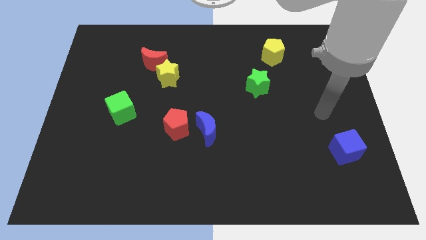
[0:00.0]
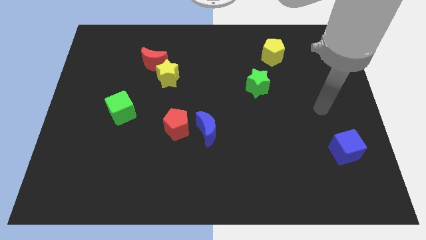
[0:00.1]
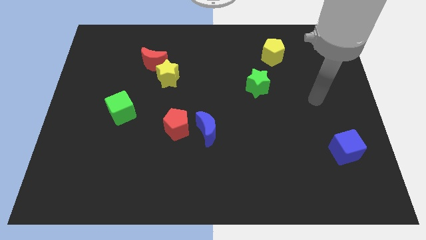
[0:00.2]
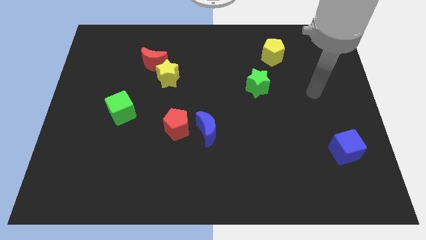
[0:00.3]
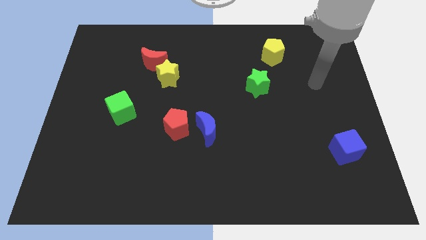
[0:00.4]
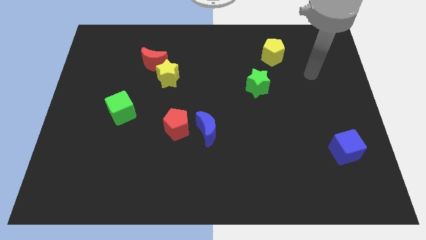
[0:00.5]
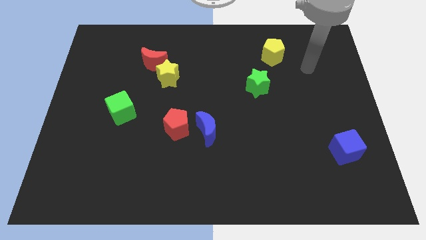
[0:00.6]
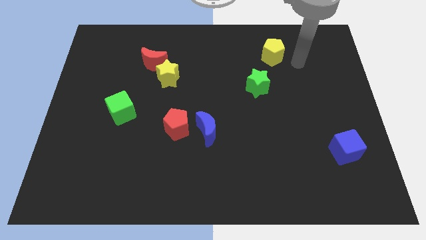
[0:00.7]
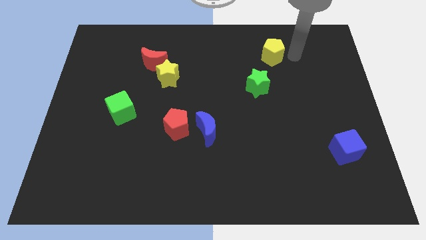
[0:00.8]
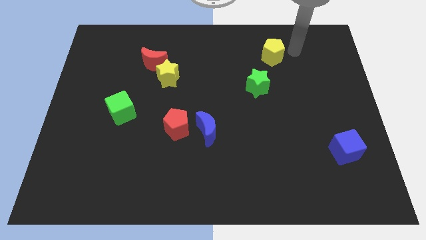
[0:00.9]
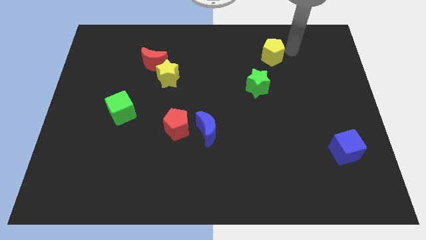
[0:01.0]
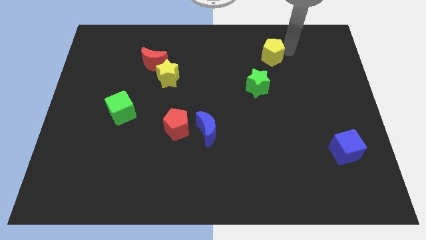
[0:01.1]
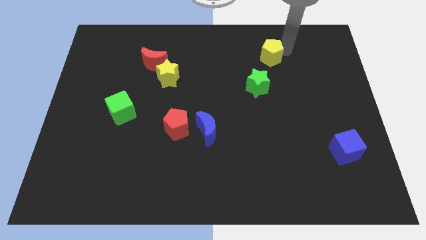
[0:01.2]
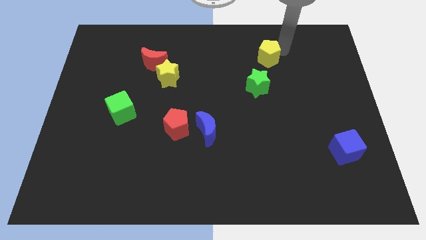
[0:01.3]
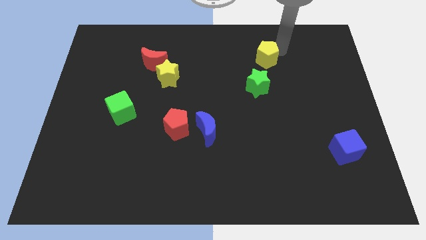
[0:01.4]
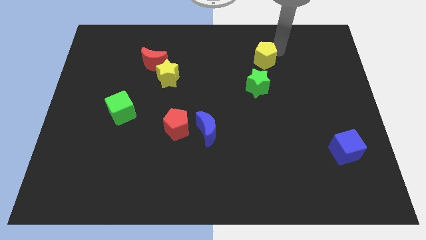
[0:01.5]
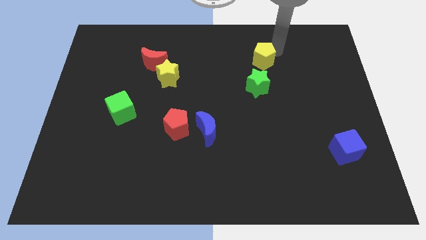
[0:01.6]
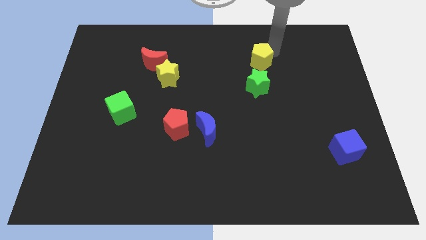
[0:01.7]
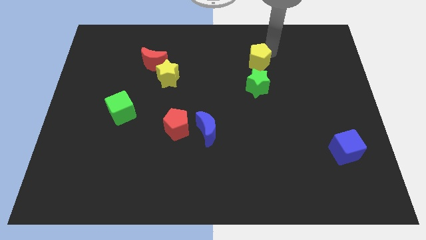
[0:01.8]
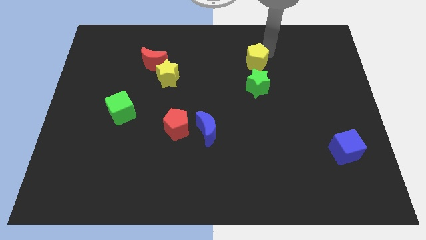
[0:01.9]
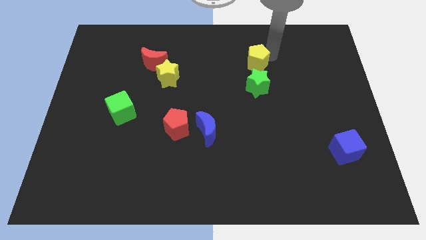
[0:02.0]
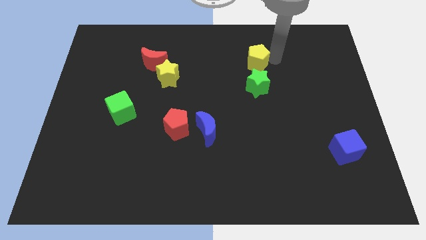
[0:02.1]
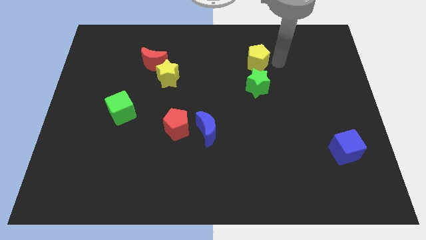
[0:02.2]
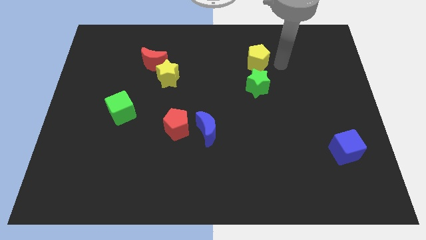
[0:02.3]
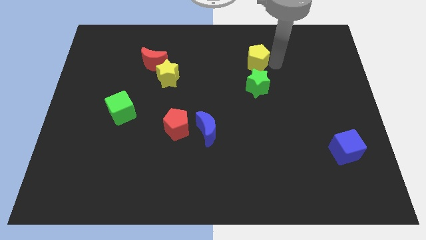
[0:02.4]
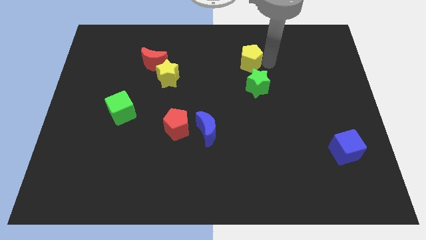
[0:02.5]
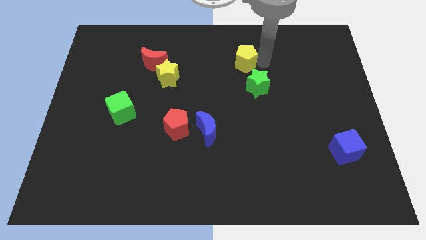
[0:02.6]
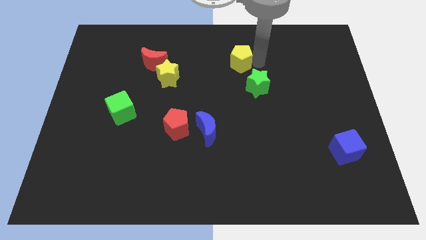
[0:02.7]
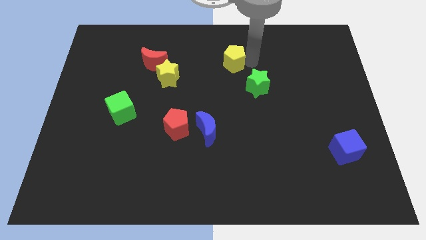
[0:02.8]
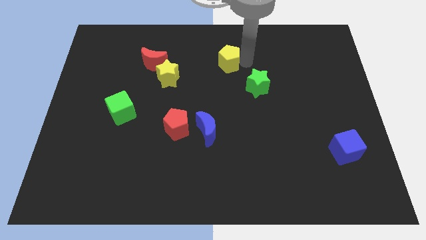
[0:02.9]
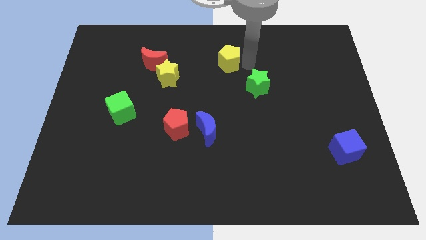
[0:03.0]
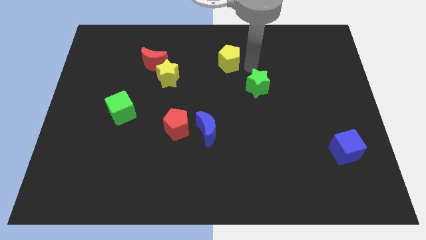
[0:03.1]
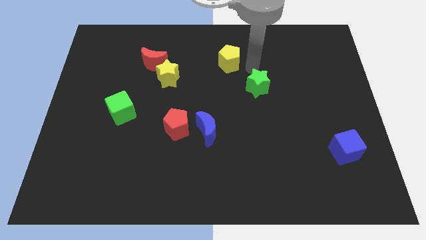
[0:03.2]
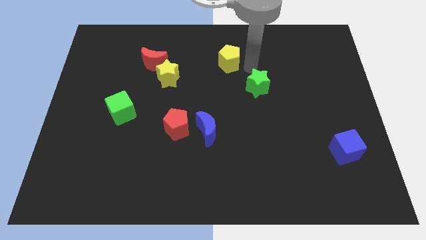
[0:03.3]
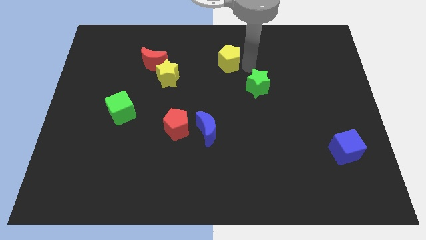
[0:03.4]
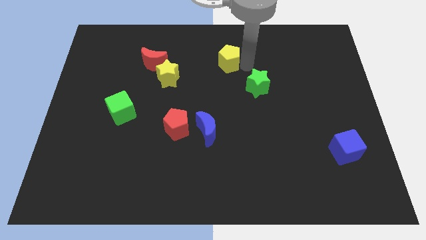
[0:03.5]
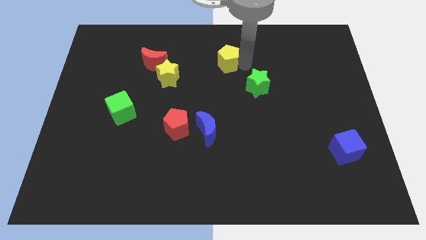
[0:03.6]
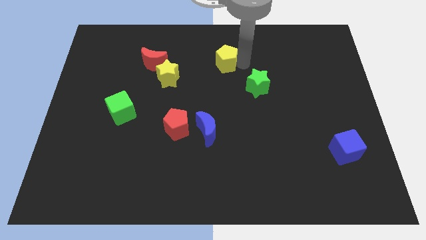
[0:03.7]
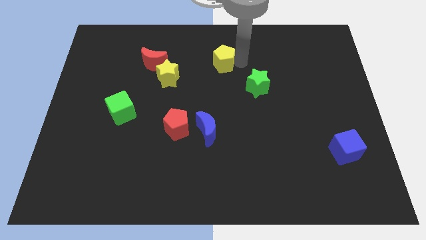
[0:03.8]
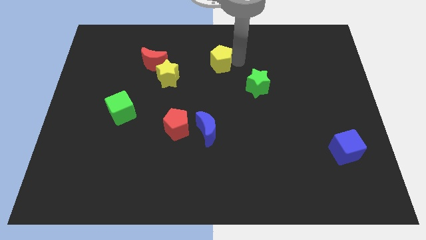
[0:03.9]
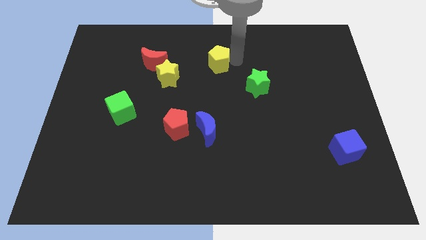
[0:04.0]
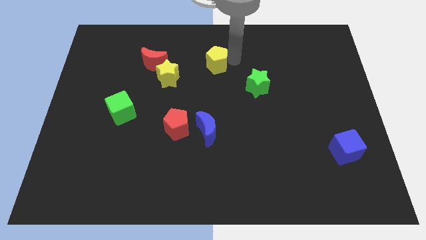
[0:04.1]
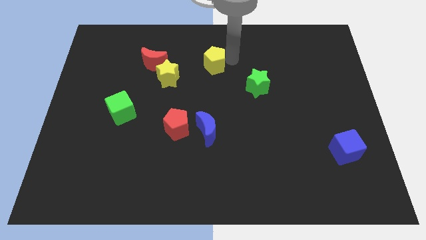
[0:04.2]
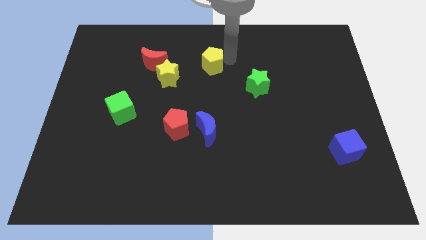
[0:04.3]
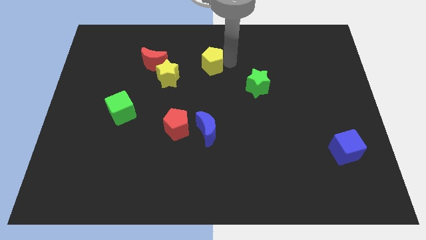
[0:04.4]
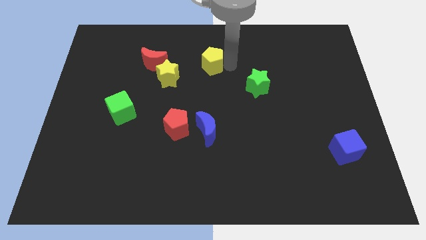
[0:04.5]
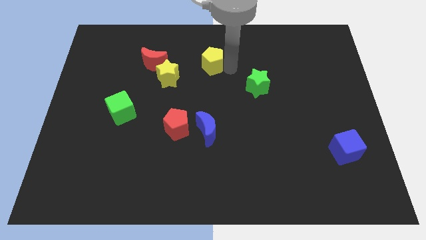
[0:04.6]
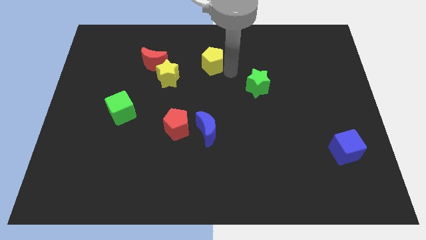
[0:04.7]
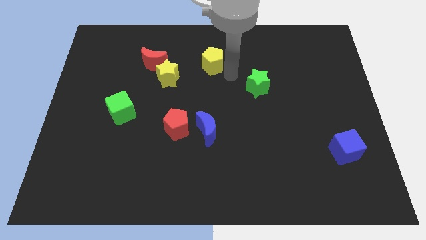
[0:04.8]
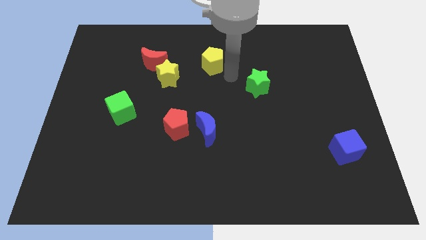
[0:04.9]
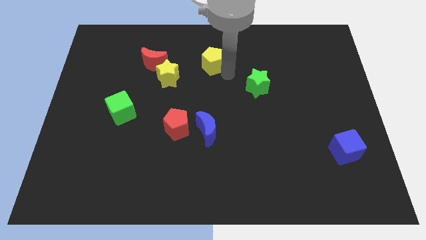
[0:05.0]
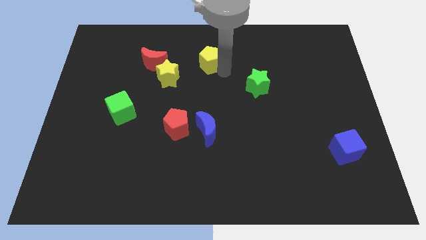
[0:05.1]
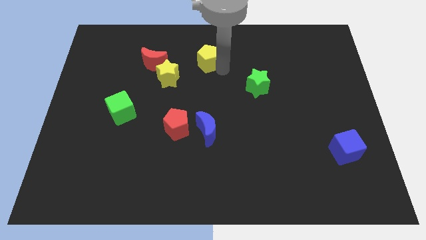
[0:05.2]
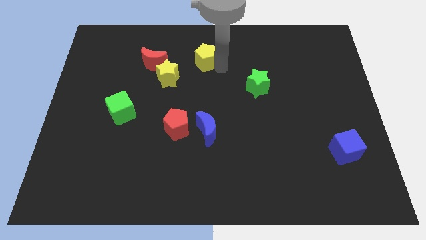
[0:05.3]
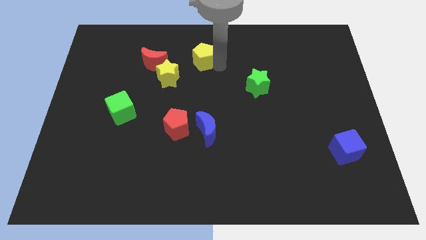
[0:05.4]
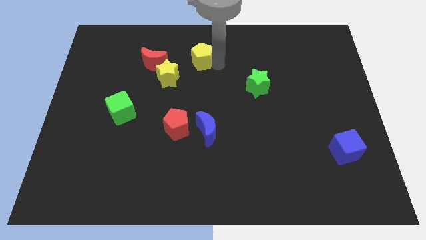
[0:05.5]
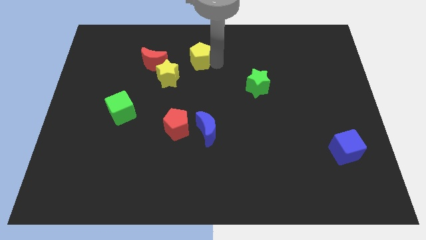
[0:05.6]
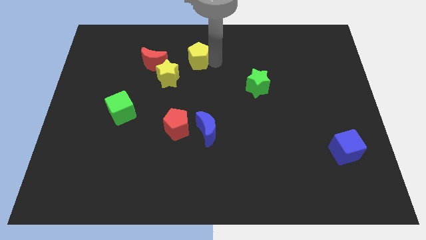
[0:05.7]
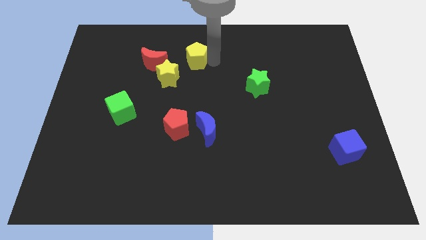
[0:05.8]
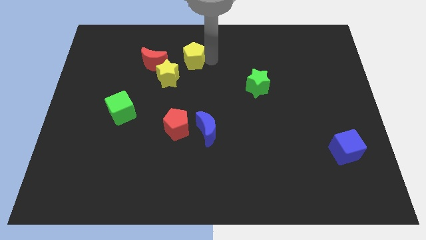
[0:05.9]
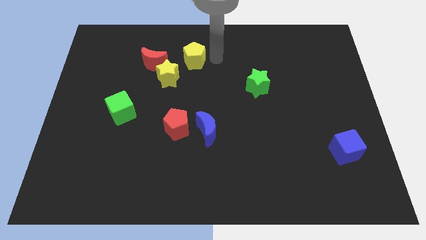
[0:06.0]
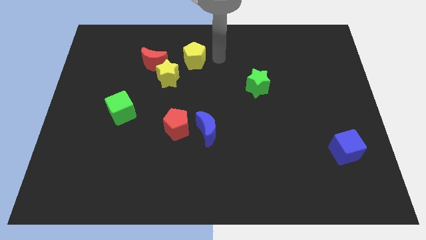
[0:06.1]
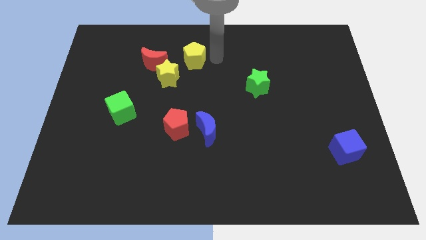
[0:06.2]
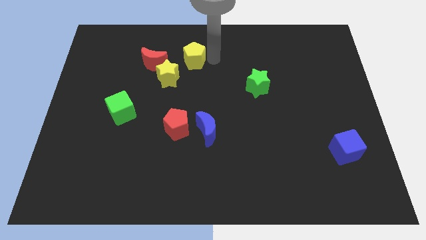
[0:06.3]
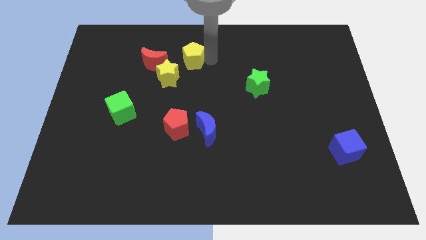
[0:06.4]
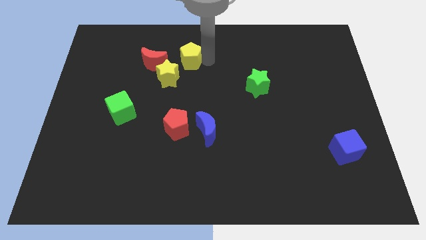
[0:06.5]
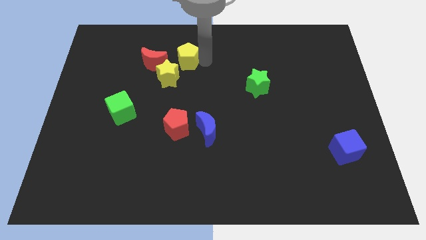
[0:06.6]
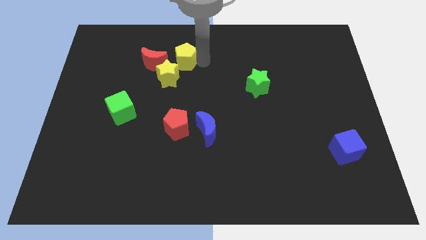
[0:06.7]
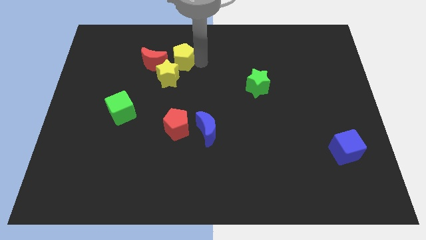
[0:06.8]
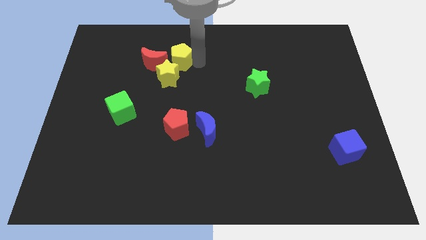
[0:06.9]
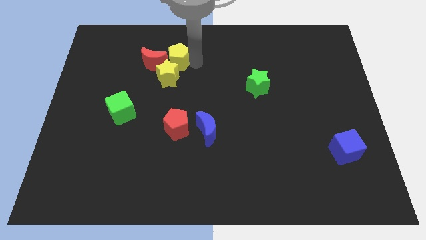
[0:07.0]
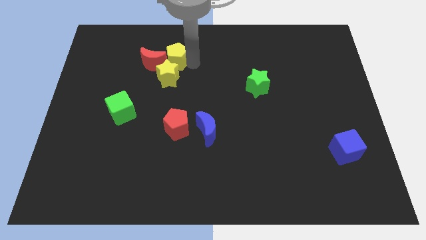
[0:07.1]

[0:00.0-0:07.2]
push the yellow pentagon next to the red moon
